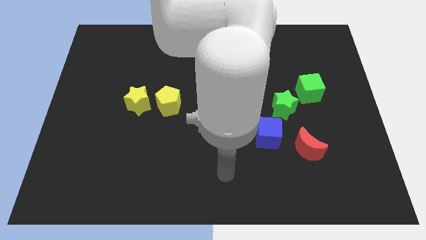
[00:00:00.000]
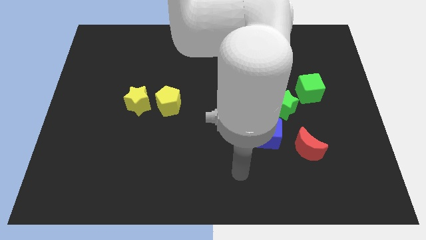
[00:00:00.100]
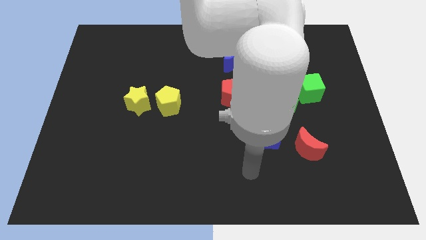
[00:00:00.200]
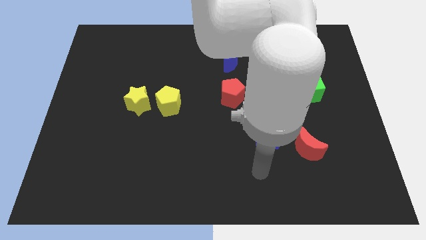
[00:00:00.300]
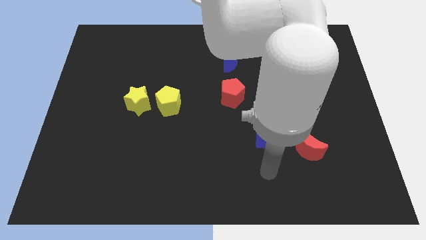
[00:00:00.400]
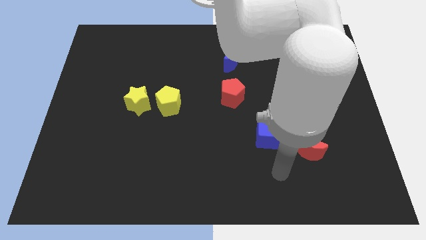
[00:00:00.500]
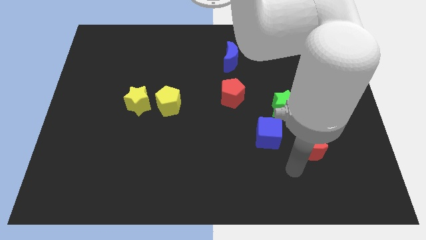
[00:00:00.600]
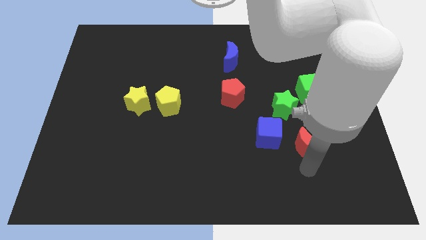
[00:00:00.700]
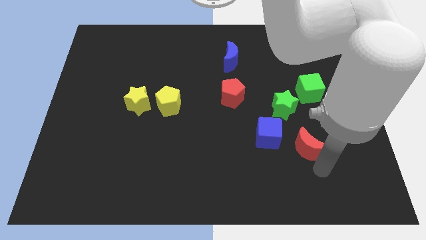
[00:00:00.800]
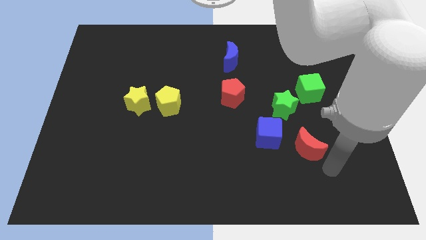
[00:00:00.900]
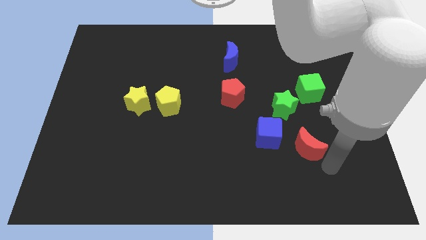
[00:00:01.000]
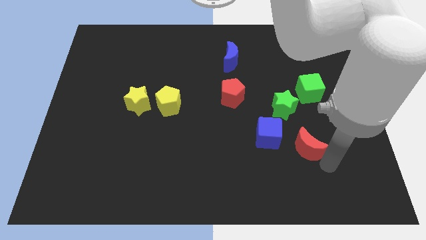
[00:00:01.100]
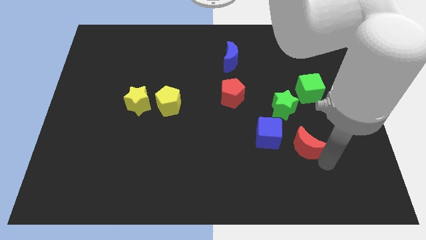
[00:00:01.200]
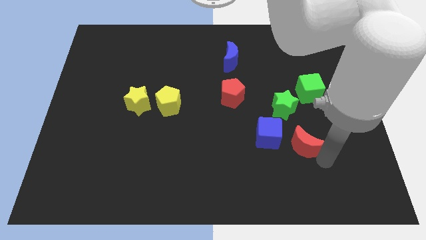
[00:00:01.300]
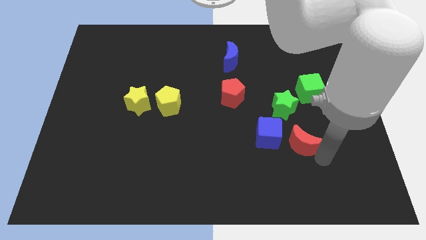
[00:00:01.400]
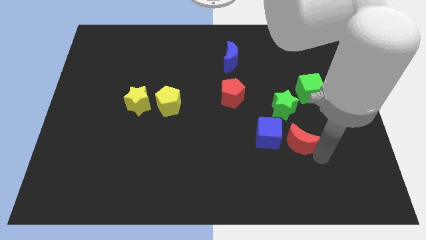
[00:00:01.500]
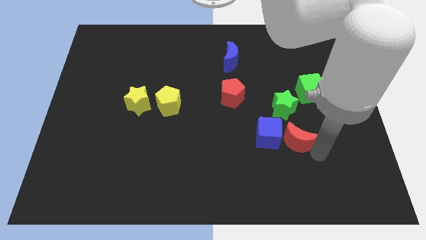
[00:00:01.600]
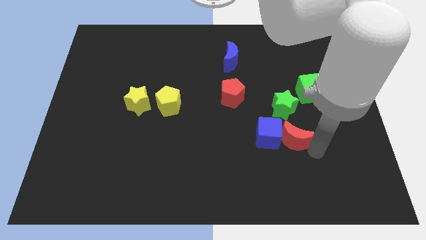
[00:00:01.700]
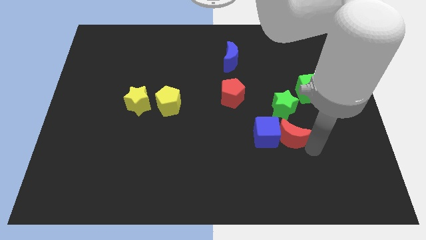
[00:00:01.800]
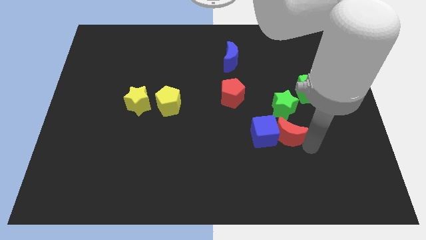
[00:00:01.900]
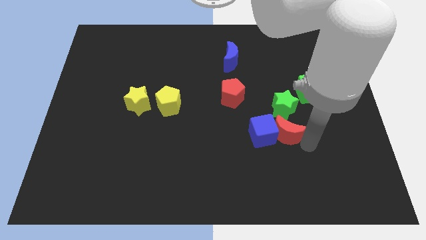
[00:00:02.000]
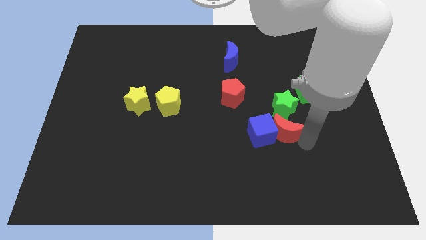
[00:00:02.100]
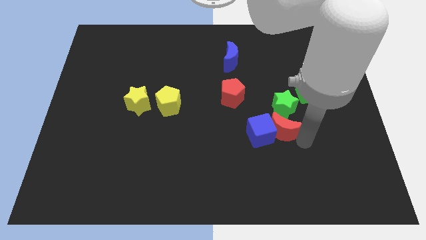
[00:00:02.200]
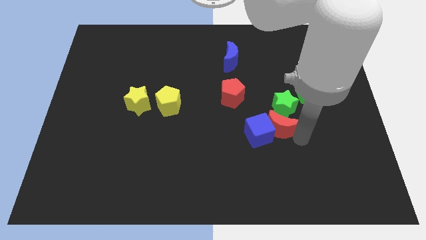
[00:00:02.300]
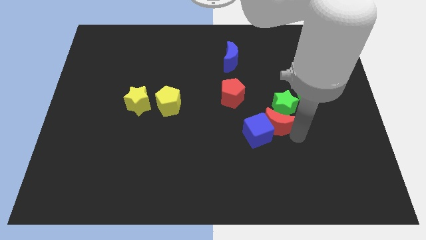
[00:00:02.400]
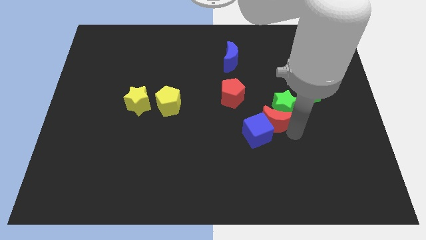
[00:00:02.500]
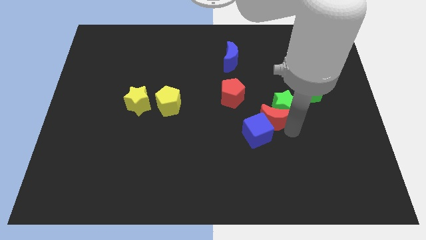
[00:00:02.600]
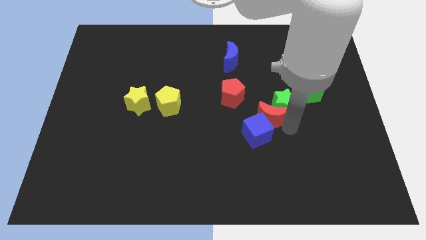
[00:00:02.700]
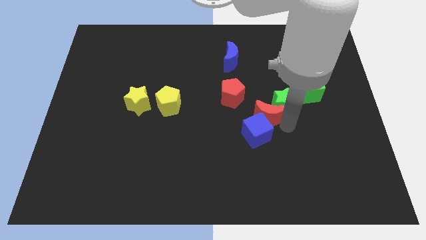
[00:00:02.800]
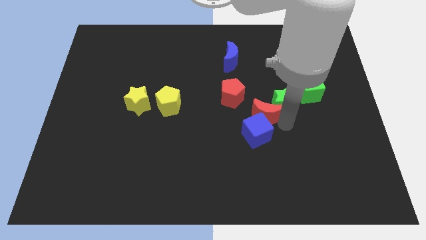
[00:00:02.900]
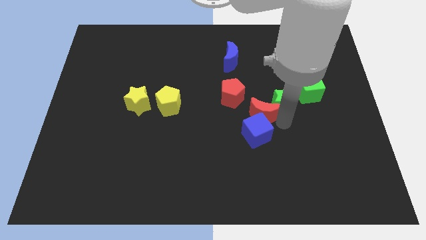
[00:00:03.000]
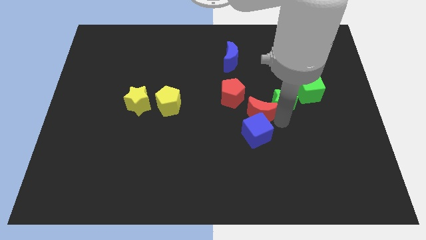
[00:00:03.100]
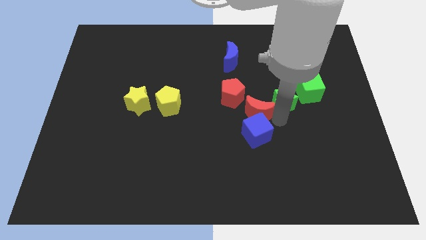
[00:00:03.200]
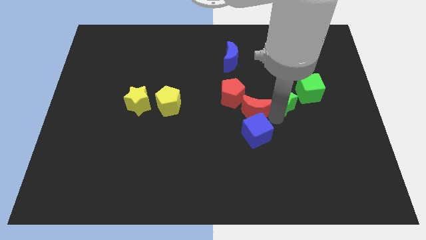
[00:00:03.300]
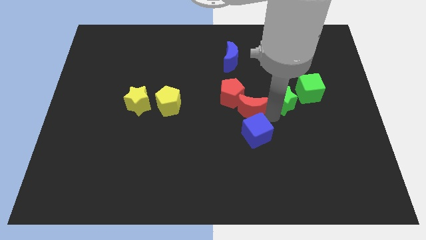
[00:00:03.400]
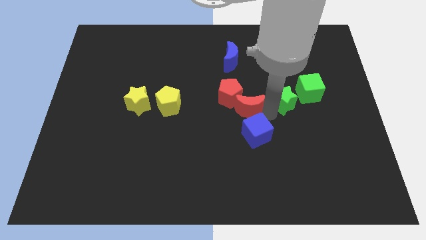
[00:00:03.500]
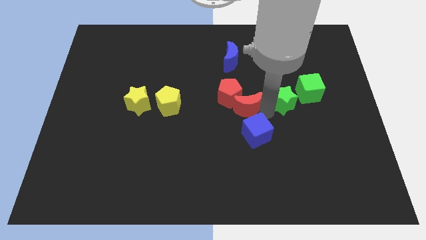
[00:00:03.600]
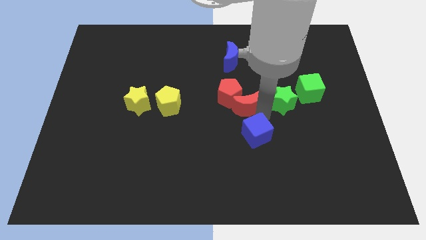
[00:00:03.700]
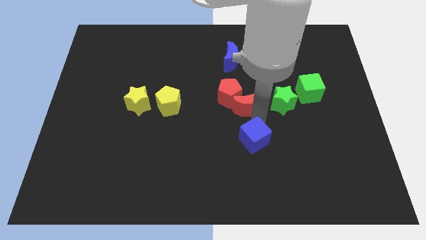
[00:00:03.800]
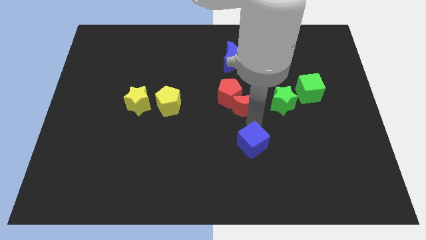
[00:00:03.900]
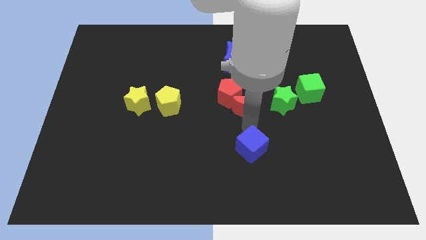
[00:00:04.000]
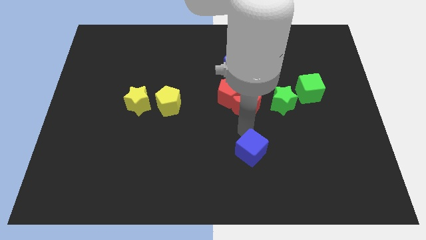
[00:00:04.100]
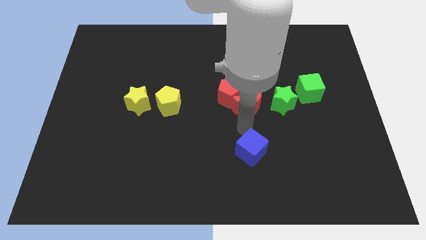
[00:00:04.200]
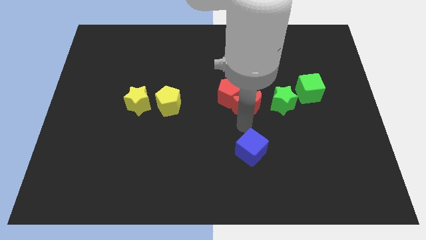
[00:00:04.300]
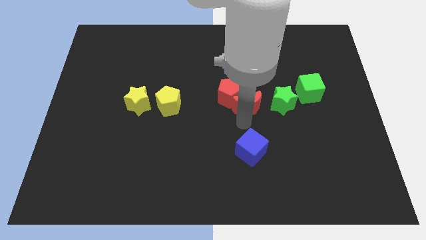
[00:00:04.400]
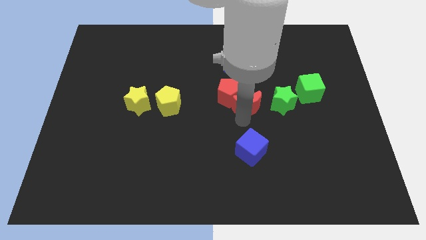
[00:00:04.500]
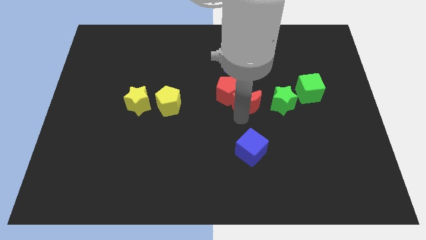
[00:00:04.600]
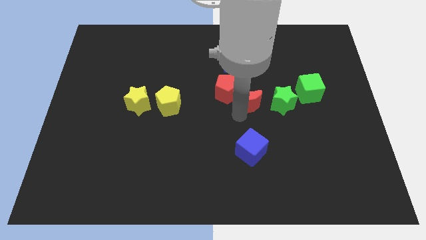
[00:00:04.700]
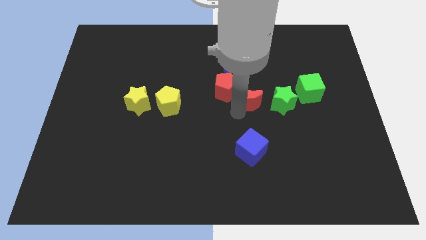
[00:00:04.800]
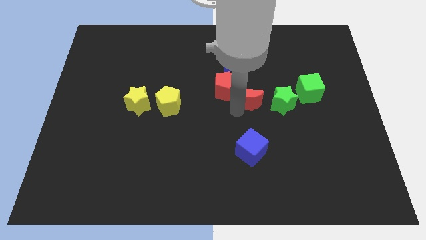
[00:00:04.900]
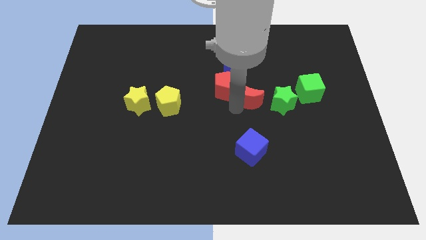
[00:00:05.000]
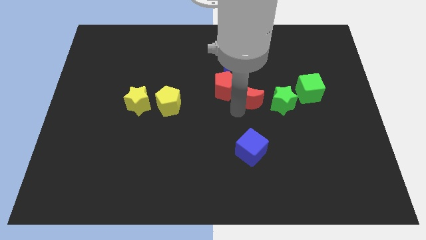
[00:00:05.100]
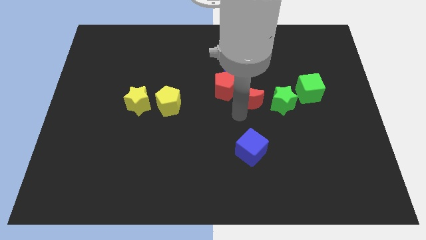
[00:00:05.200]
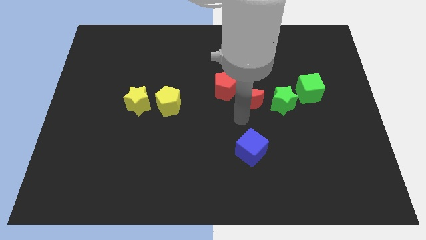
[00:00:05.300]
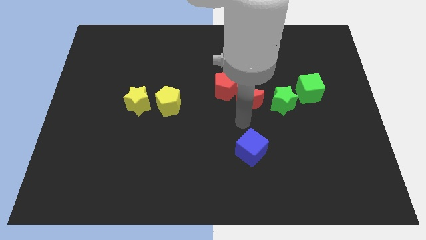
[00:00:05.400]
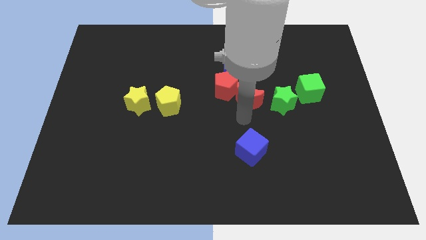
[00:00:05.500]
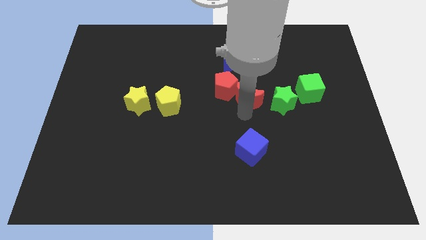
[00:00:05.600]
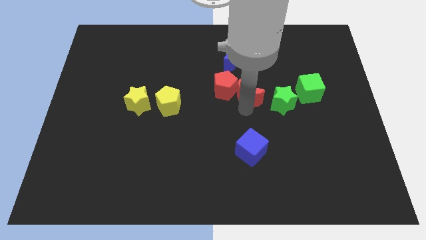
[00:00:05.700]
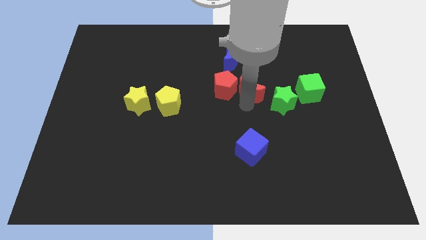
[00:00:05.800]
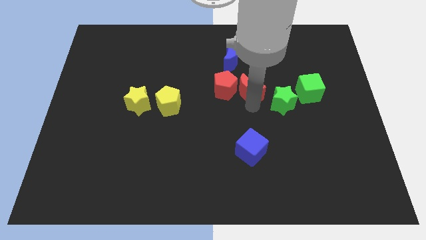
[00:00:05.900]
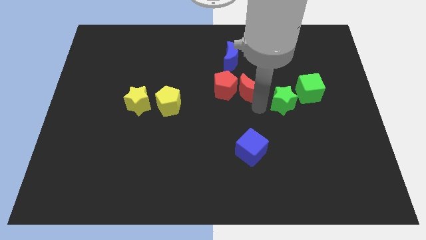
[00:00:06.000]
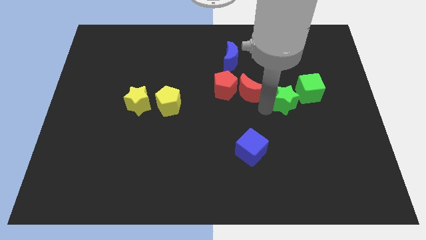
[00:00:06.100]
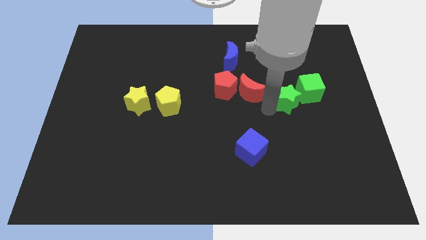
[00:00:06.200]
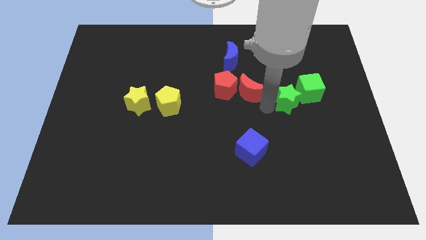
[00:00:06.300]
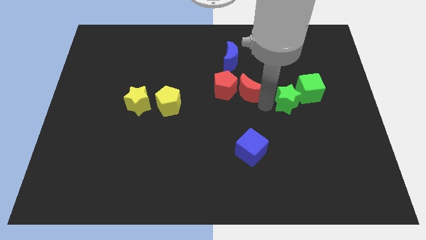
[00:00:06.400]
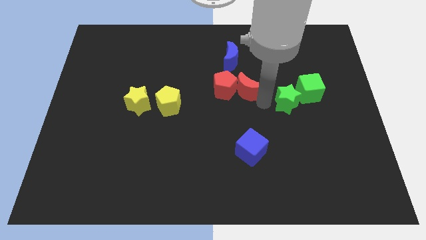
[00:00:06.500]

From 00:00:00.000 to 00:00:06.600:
push the red moon diagonally upwards and left

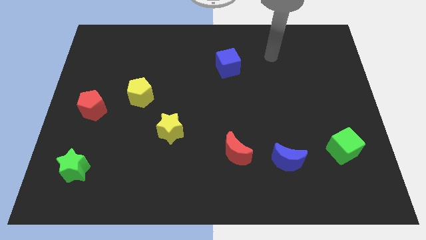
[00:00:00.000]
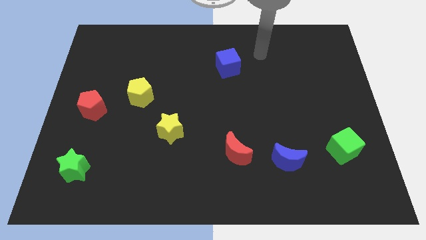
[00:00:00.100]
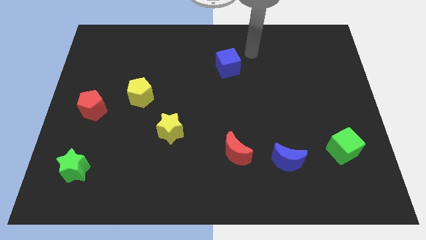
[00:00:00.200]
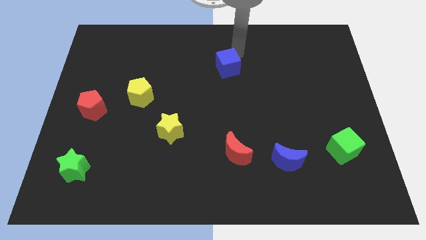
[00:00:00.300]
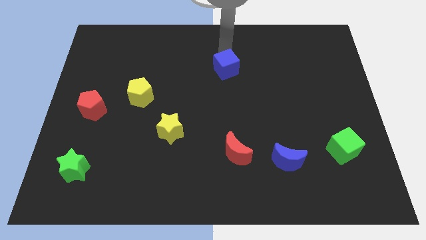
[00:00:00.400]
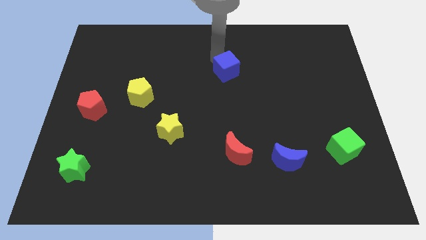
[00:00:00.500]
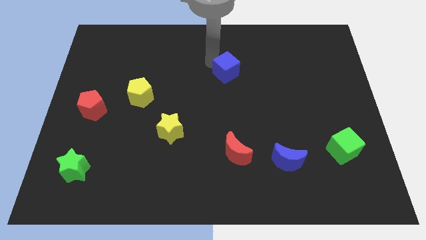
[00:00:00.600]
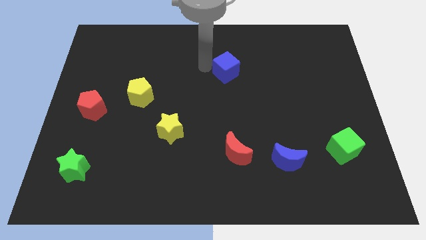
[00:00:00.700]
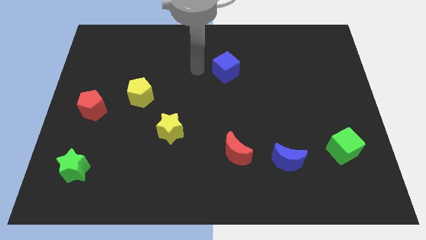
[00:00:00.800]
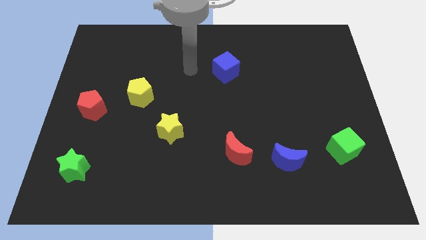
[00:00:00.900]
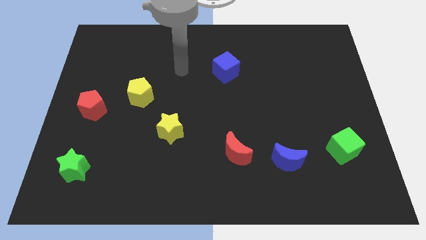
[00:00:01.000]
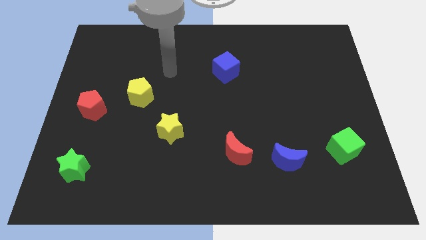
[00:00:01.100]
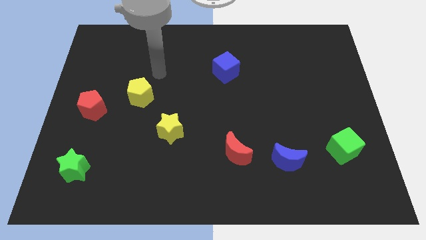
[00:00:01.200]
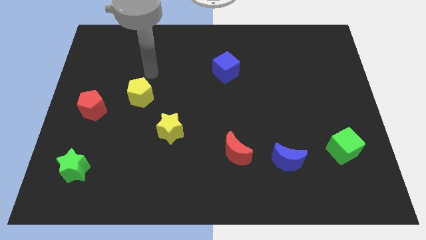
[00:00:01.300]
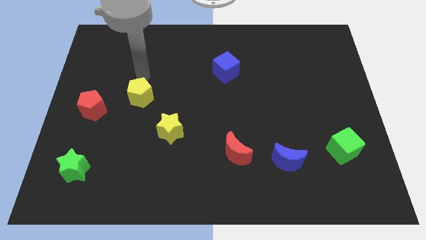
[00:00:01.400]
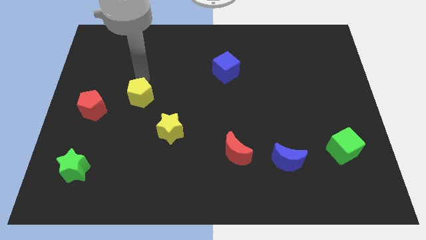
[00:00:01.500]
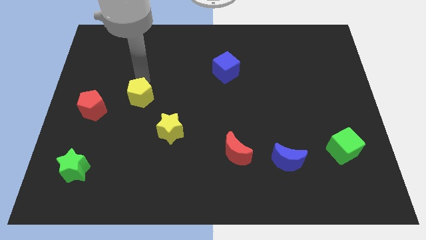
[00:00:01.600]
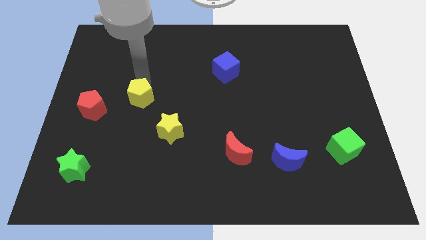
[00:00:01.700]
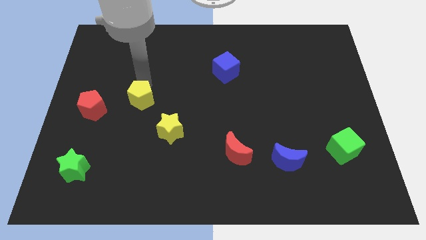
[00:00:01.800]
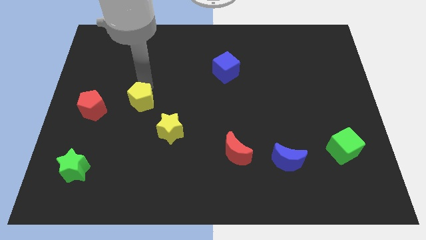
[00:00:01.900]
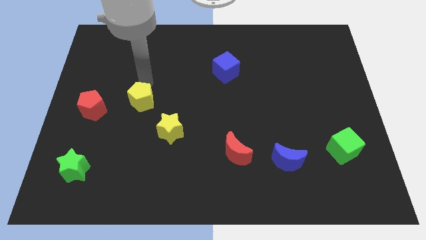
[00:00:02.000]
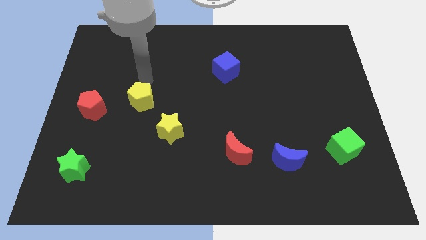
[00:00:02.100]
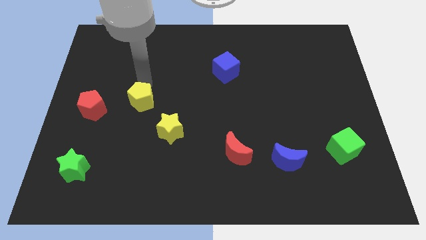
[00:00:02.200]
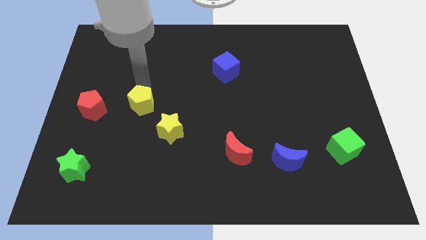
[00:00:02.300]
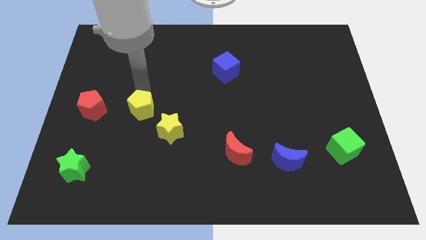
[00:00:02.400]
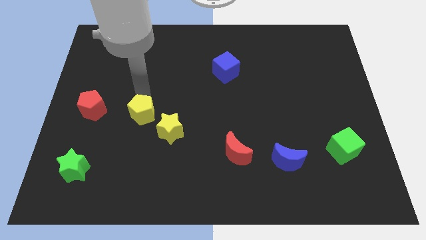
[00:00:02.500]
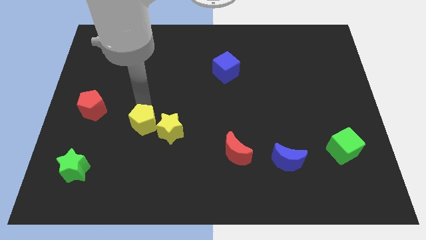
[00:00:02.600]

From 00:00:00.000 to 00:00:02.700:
slide the yellow pentagon downwards a little
